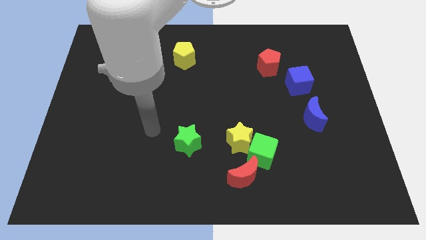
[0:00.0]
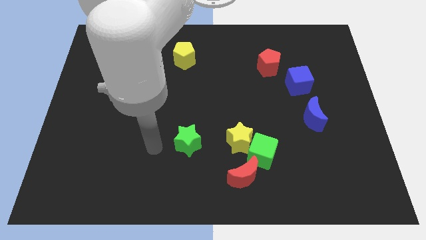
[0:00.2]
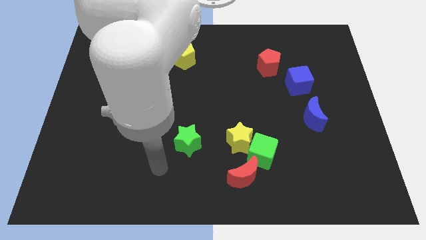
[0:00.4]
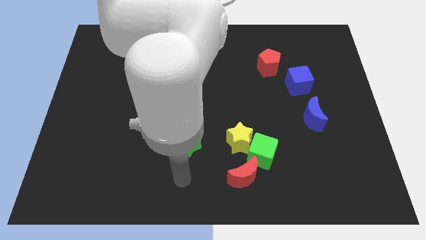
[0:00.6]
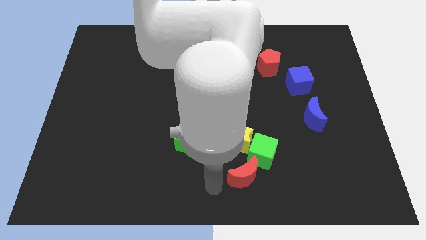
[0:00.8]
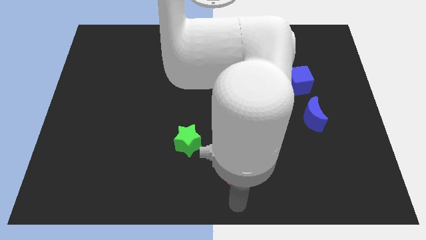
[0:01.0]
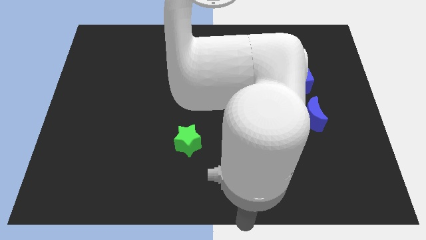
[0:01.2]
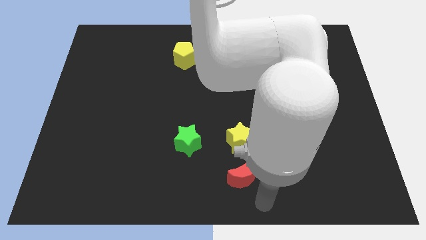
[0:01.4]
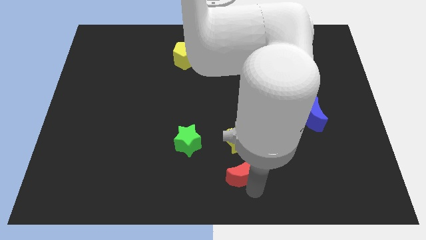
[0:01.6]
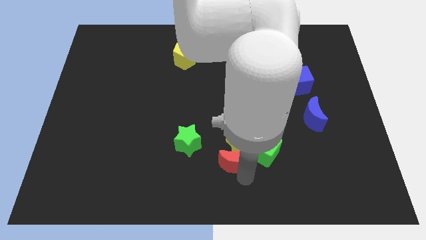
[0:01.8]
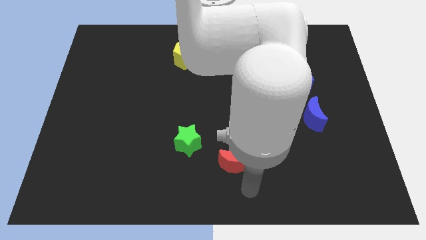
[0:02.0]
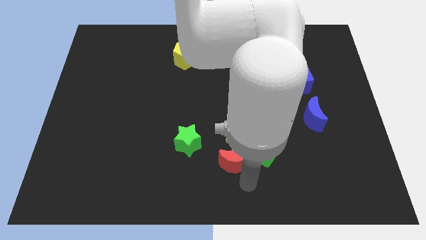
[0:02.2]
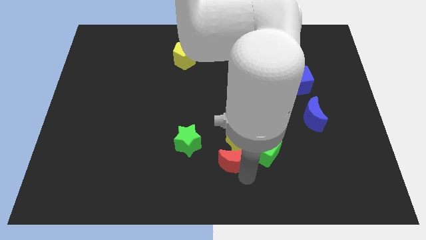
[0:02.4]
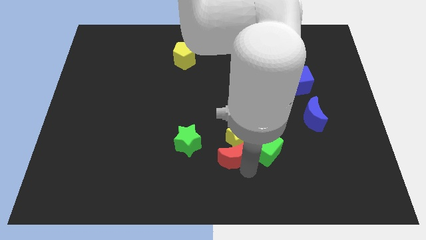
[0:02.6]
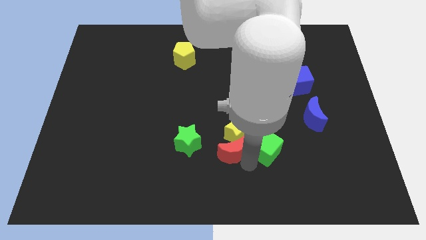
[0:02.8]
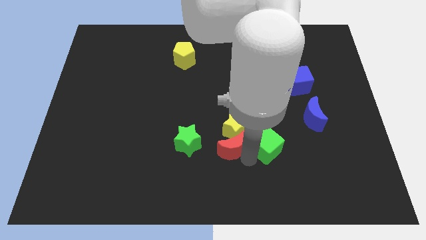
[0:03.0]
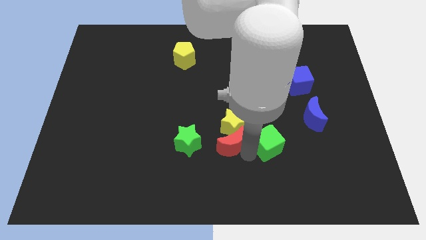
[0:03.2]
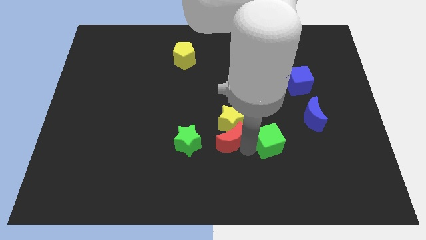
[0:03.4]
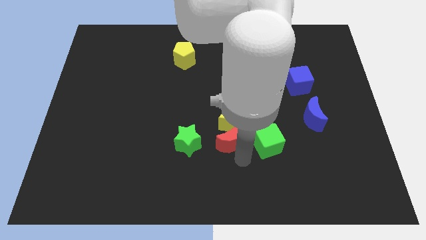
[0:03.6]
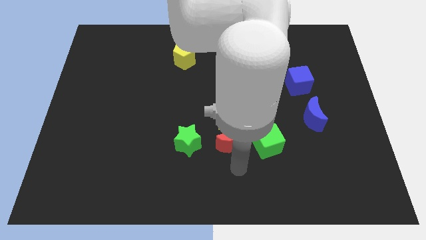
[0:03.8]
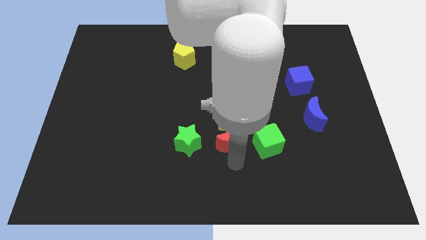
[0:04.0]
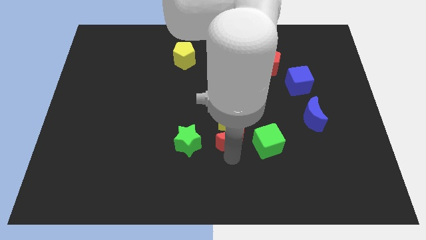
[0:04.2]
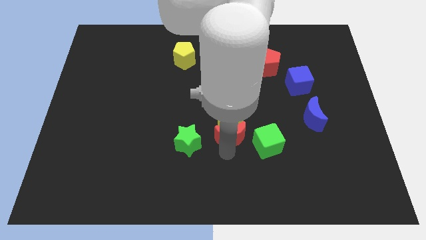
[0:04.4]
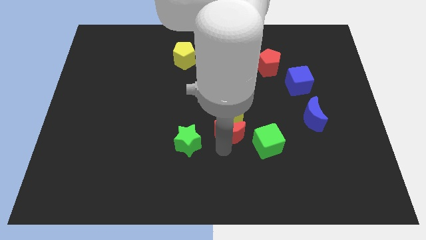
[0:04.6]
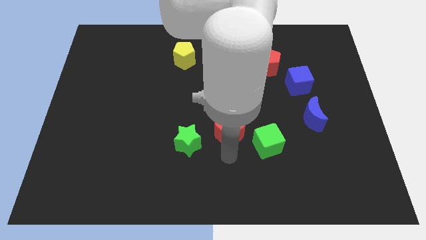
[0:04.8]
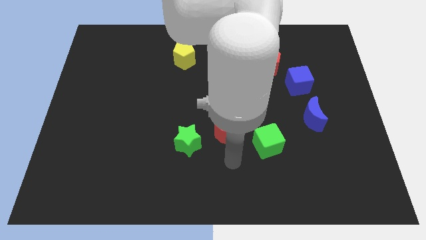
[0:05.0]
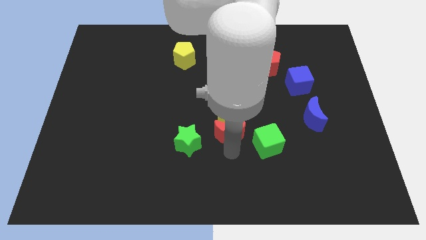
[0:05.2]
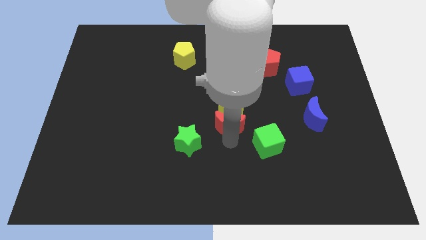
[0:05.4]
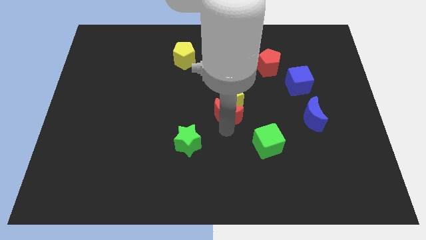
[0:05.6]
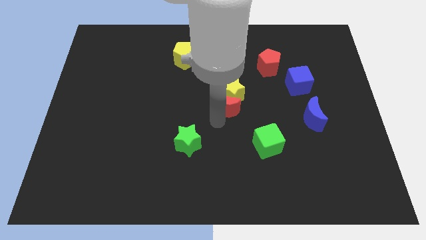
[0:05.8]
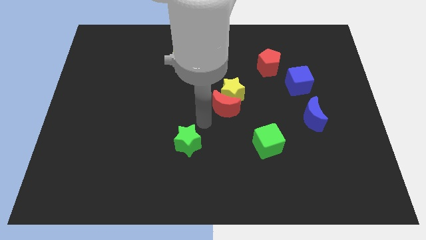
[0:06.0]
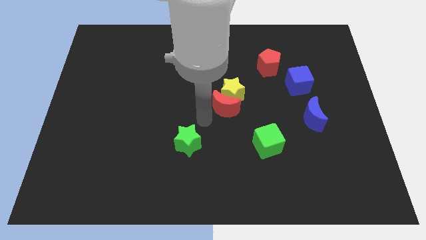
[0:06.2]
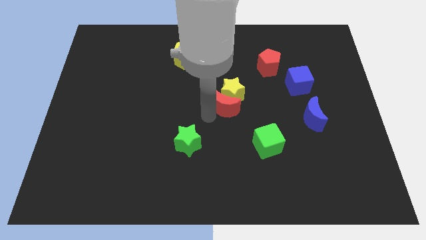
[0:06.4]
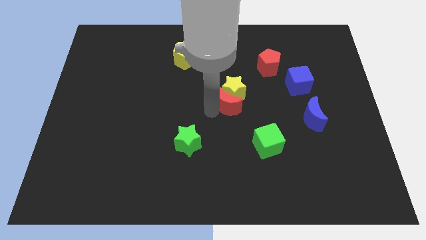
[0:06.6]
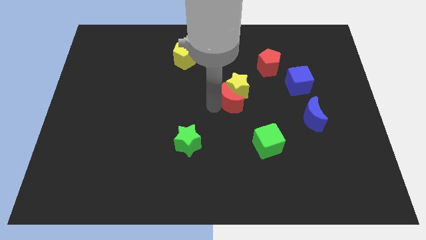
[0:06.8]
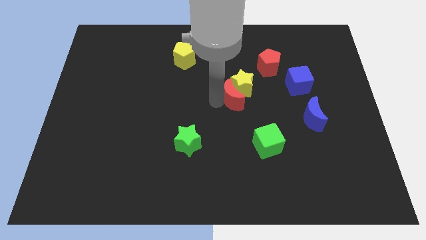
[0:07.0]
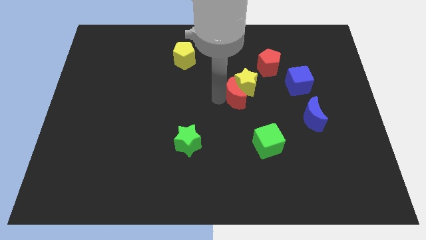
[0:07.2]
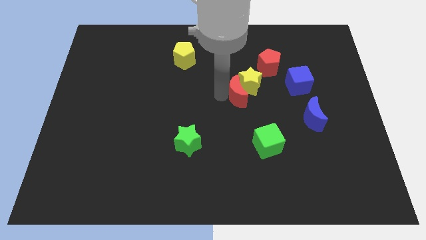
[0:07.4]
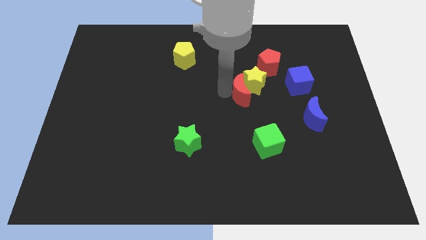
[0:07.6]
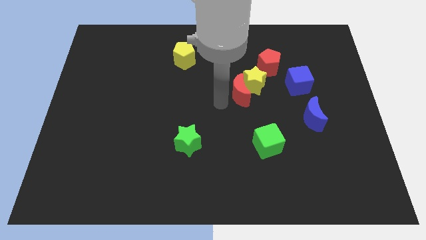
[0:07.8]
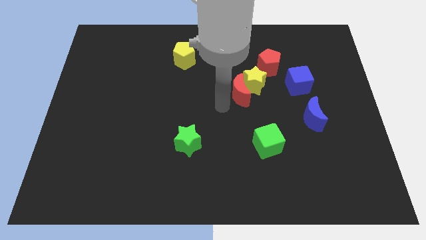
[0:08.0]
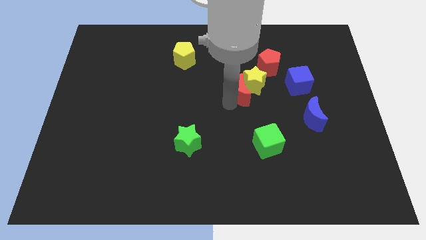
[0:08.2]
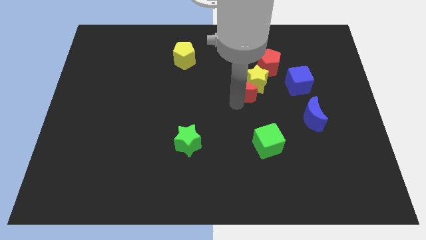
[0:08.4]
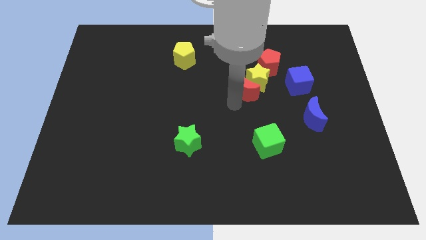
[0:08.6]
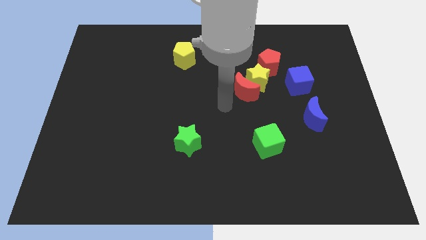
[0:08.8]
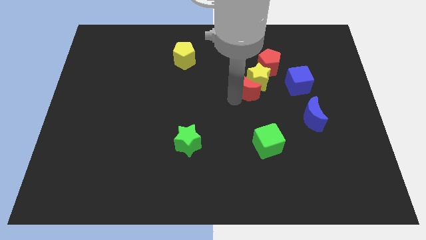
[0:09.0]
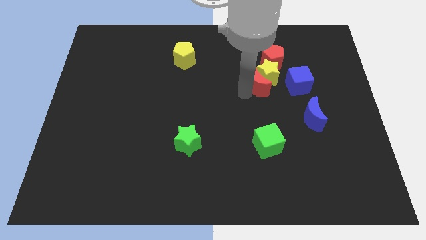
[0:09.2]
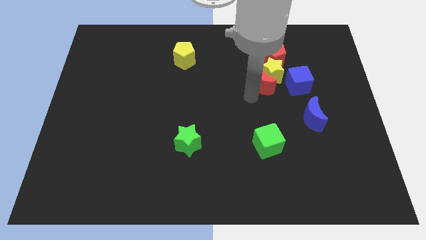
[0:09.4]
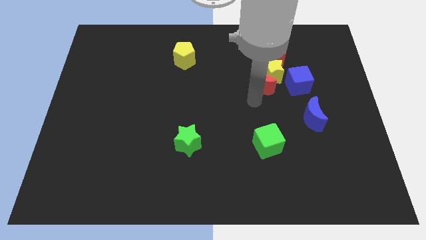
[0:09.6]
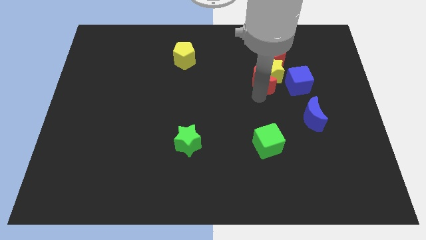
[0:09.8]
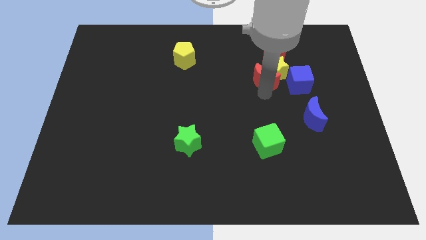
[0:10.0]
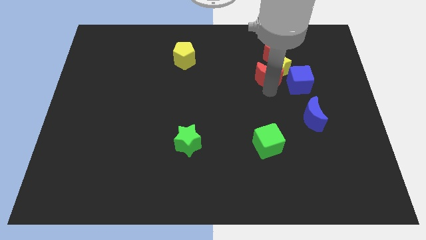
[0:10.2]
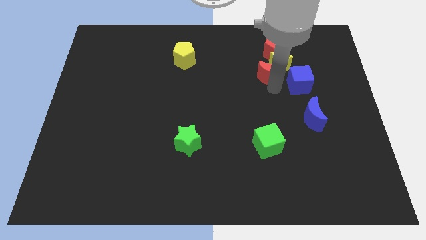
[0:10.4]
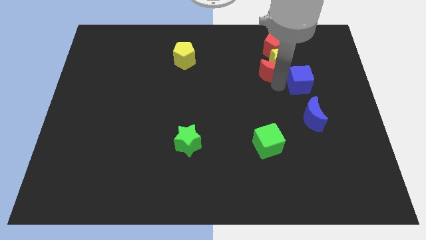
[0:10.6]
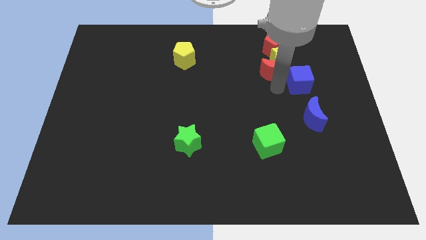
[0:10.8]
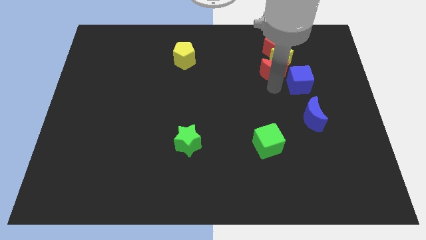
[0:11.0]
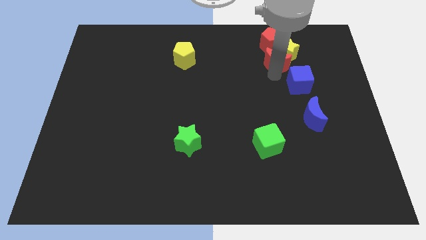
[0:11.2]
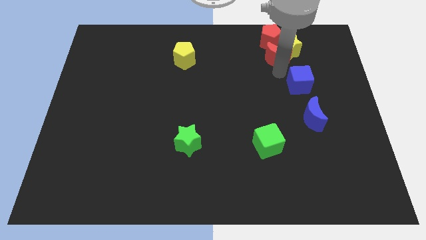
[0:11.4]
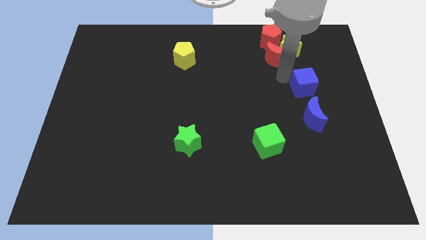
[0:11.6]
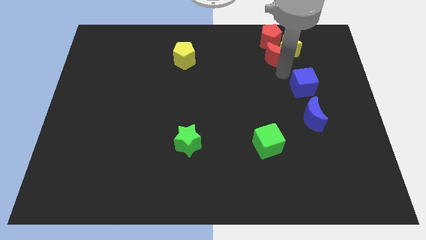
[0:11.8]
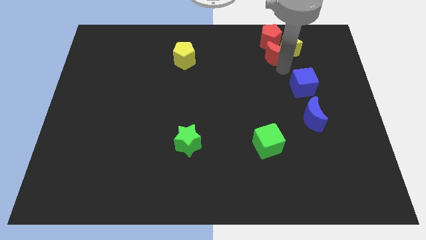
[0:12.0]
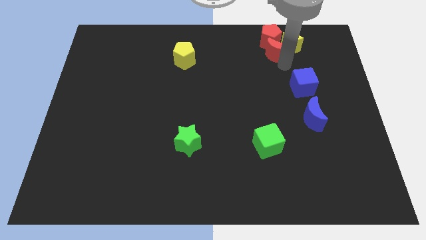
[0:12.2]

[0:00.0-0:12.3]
put the red moon close to the red pentagon

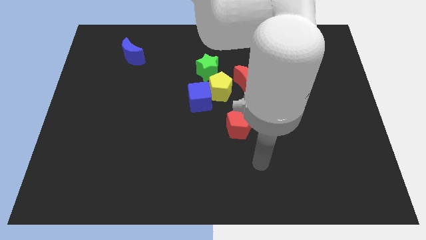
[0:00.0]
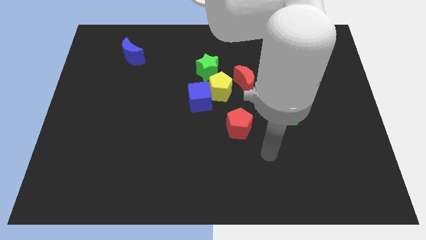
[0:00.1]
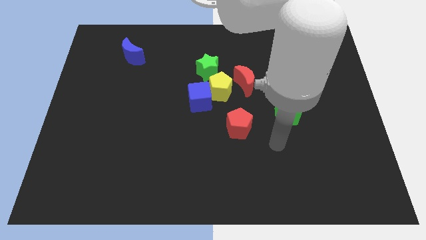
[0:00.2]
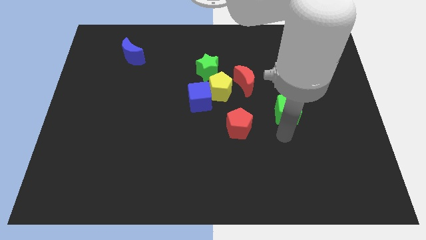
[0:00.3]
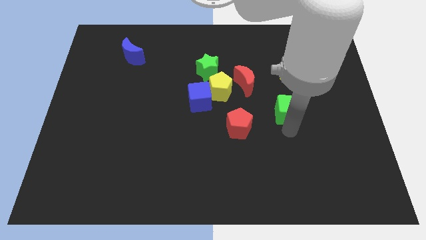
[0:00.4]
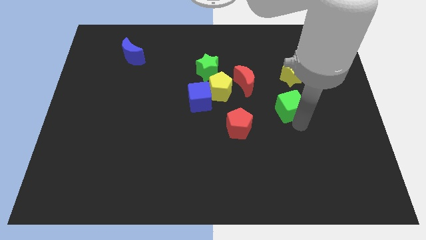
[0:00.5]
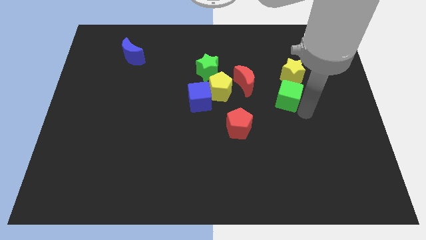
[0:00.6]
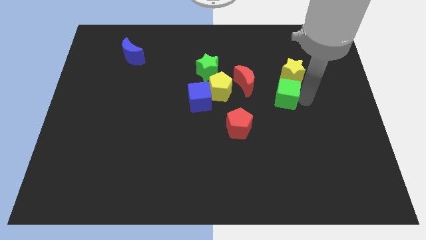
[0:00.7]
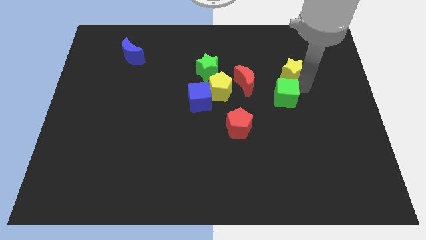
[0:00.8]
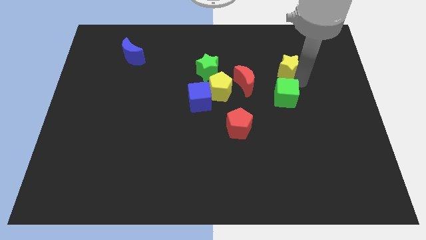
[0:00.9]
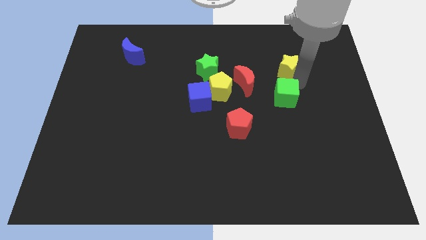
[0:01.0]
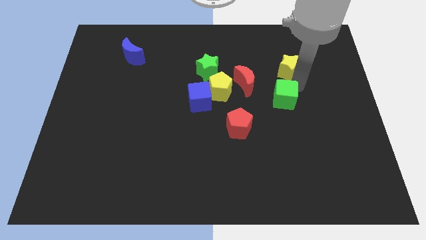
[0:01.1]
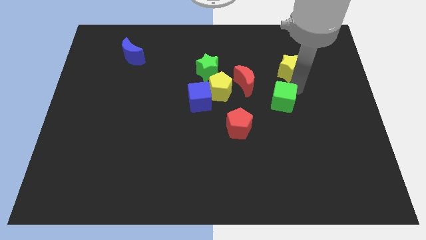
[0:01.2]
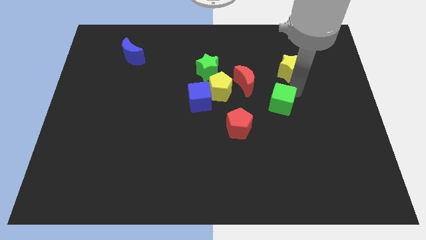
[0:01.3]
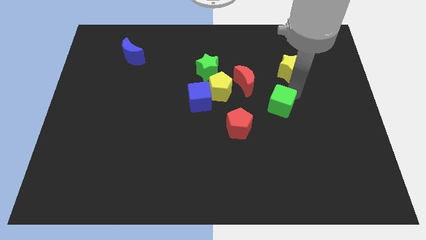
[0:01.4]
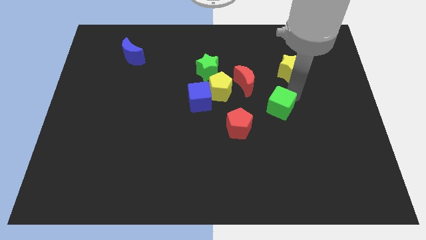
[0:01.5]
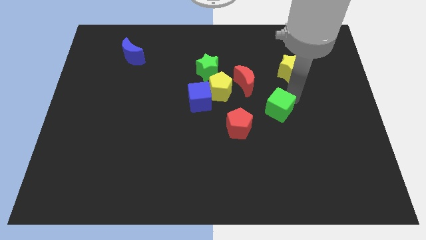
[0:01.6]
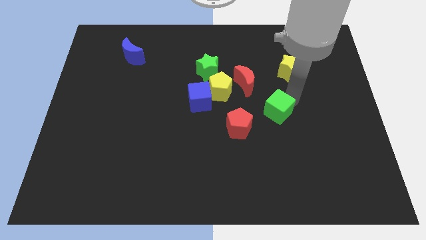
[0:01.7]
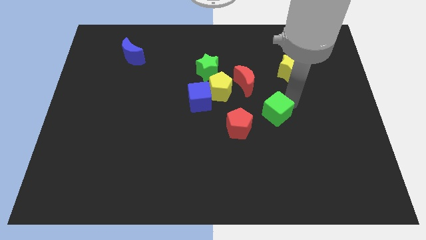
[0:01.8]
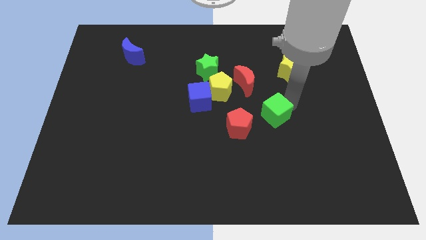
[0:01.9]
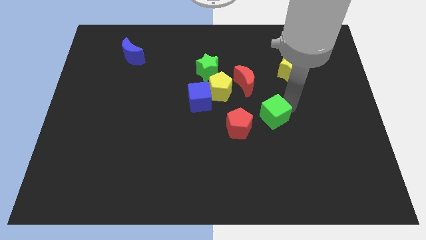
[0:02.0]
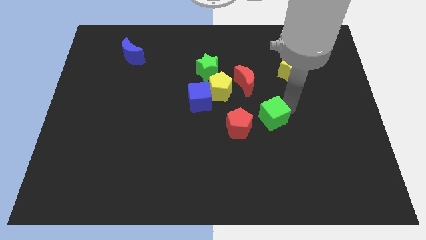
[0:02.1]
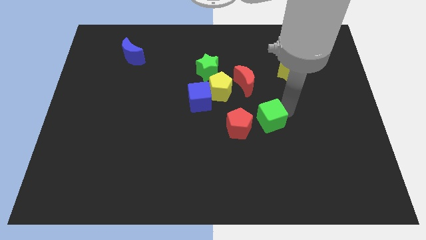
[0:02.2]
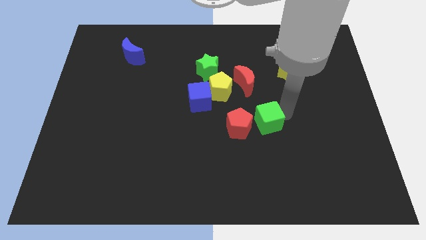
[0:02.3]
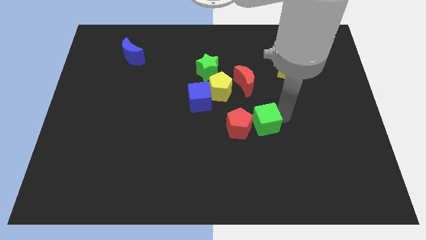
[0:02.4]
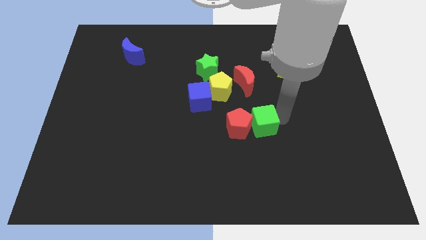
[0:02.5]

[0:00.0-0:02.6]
push the green cube close to the red pentagon
